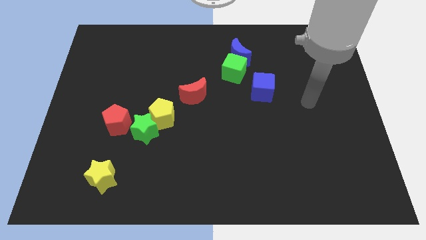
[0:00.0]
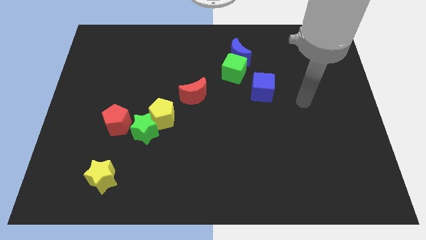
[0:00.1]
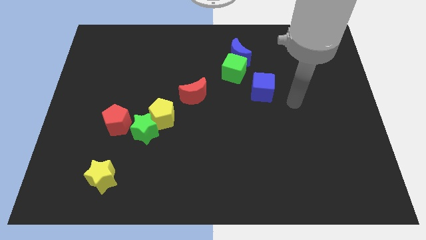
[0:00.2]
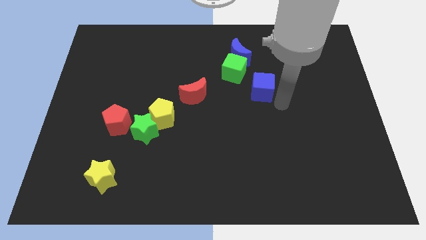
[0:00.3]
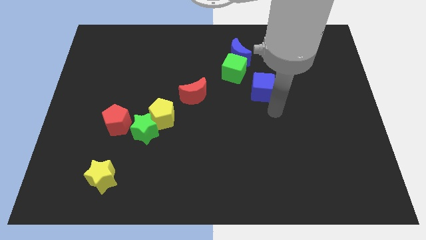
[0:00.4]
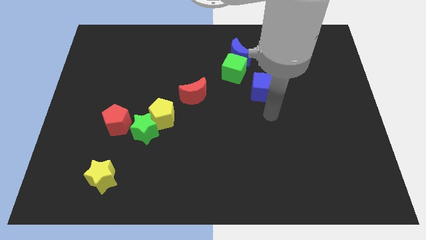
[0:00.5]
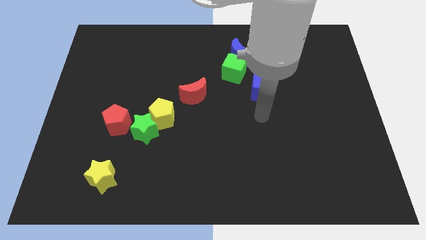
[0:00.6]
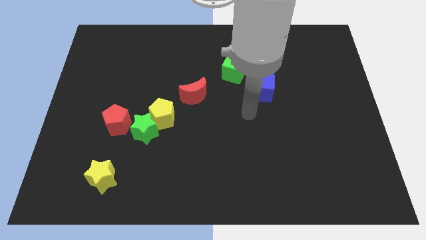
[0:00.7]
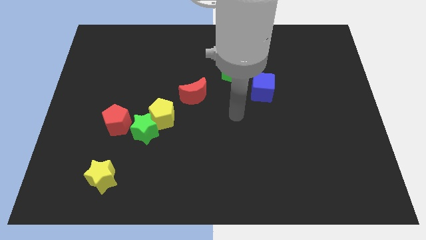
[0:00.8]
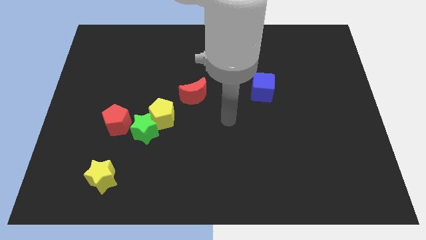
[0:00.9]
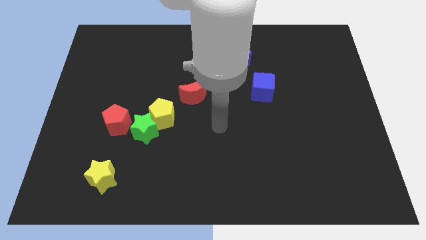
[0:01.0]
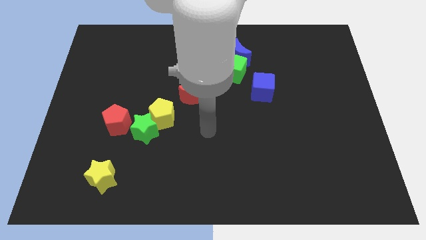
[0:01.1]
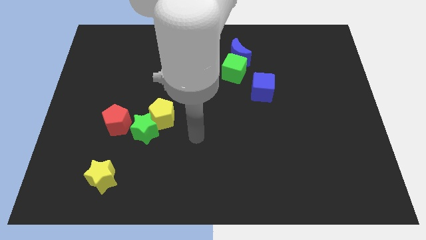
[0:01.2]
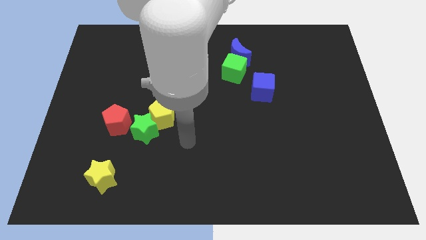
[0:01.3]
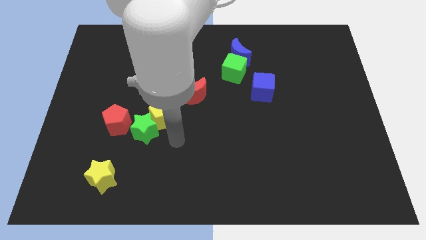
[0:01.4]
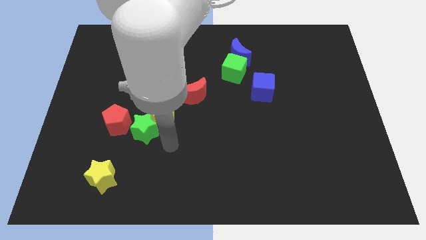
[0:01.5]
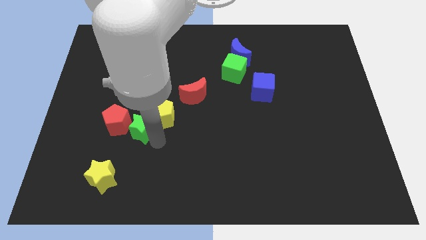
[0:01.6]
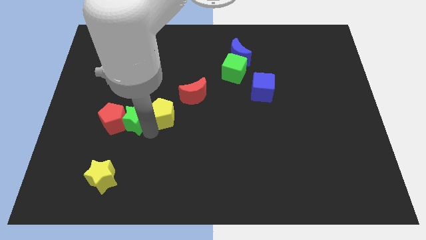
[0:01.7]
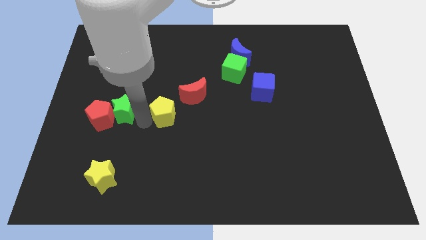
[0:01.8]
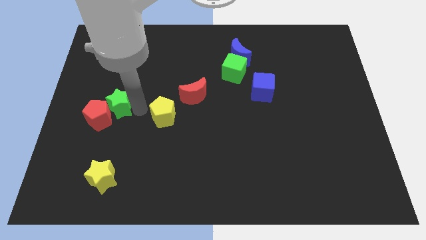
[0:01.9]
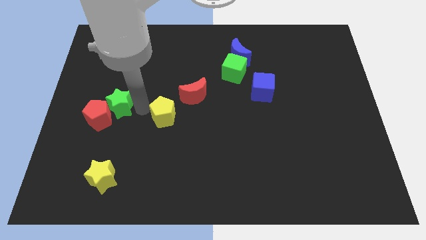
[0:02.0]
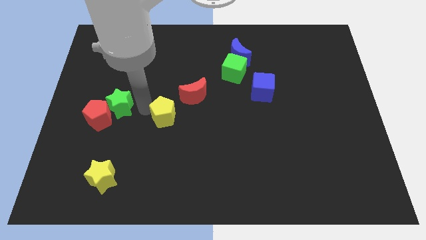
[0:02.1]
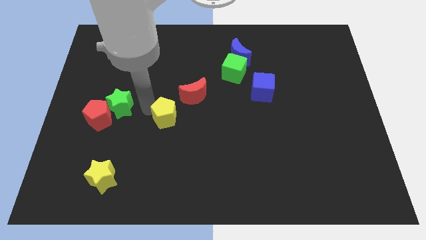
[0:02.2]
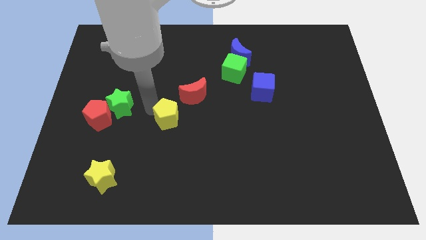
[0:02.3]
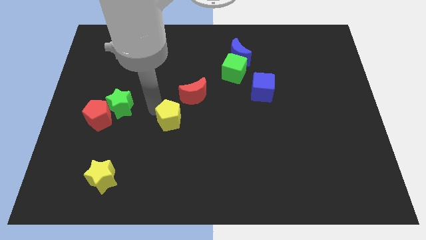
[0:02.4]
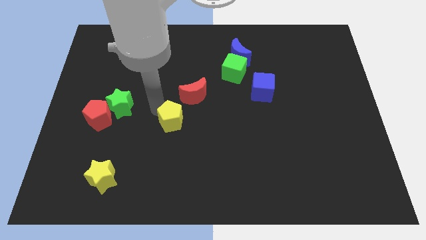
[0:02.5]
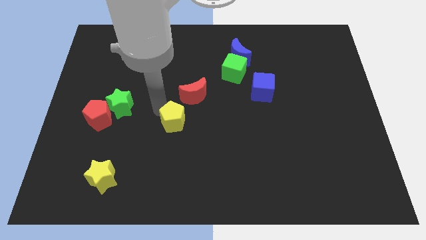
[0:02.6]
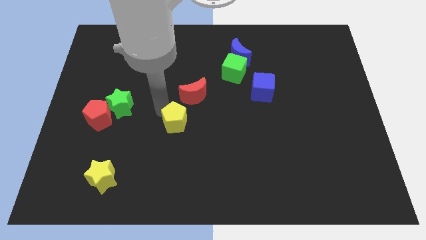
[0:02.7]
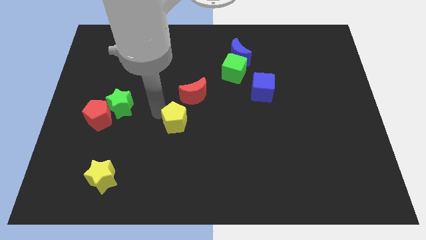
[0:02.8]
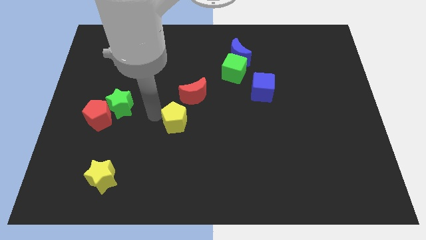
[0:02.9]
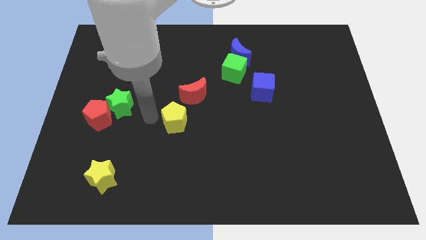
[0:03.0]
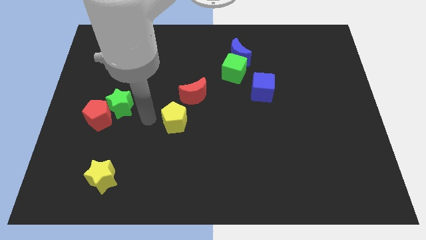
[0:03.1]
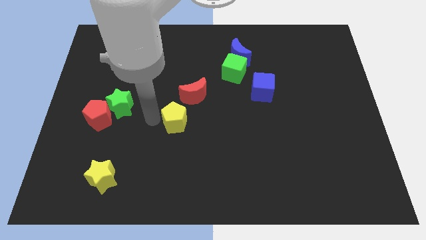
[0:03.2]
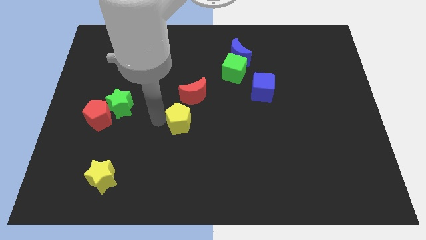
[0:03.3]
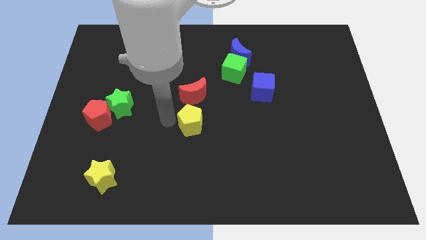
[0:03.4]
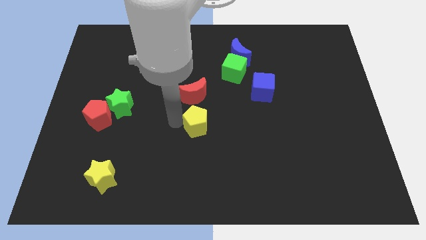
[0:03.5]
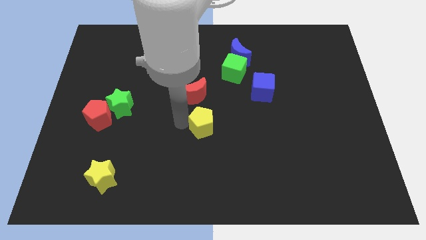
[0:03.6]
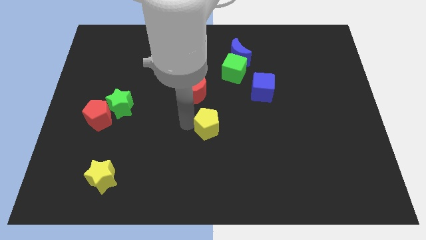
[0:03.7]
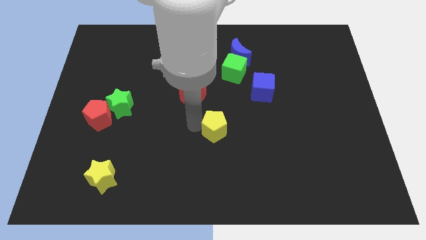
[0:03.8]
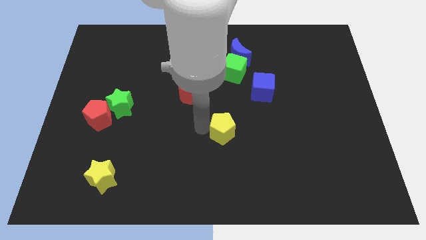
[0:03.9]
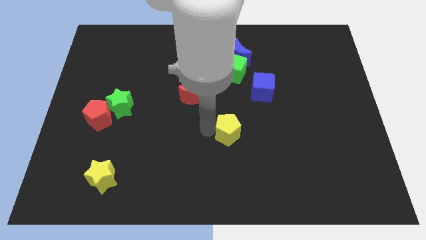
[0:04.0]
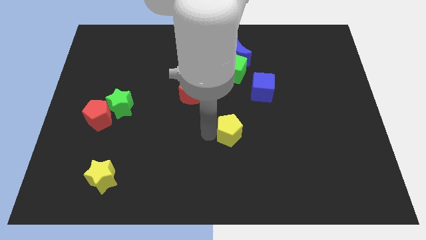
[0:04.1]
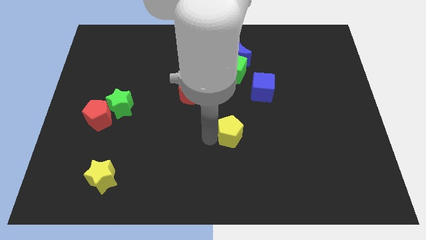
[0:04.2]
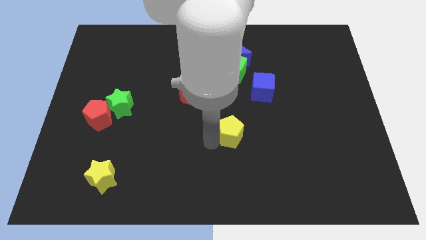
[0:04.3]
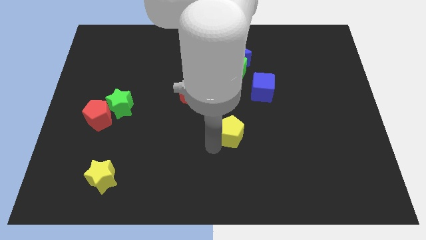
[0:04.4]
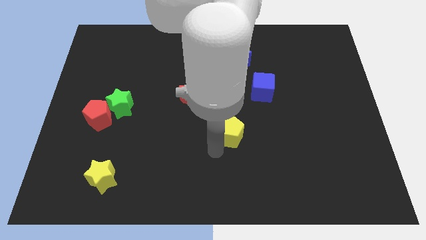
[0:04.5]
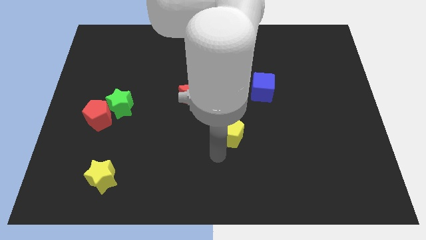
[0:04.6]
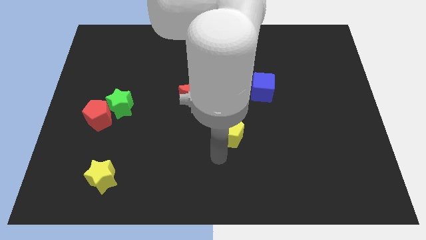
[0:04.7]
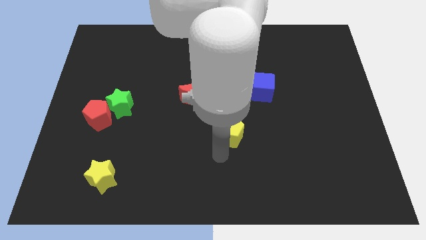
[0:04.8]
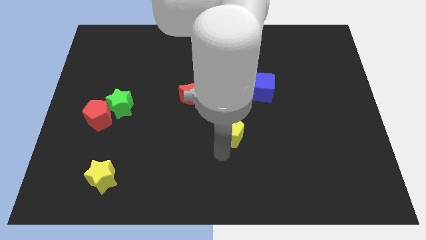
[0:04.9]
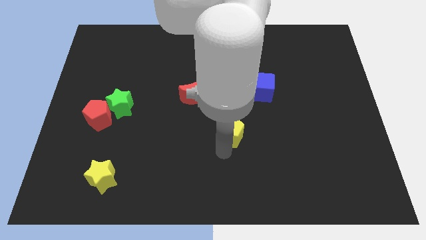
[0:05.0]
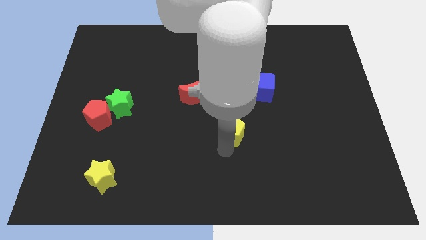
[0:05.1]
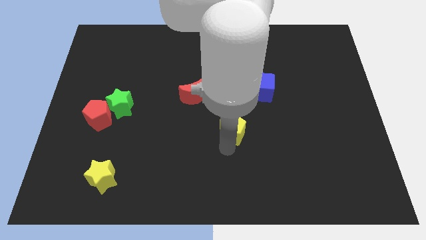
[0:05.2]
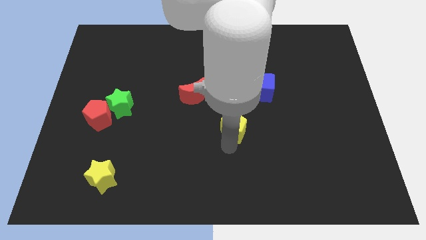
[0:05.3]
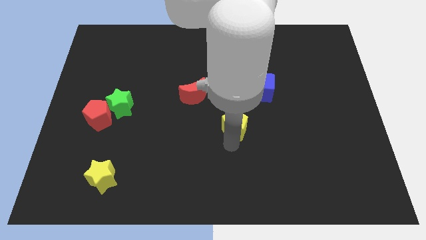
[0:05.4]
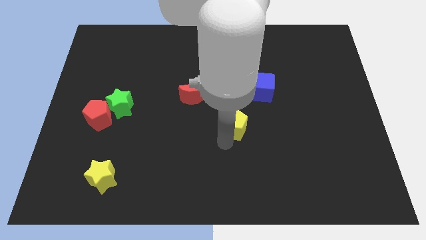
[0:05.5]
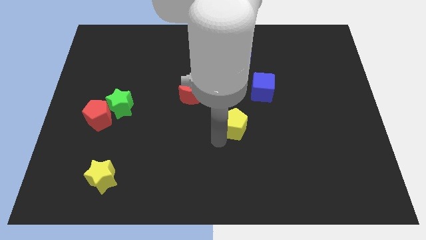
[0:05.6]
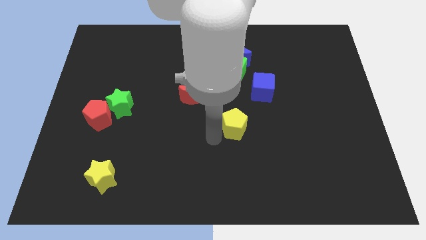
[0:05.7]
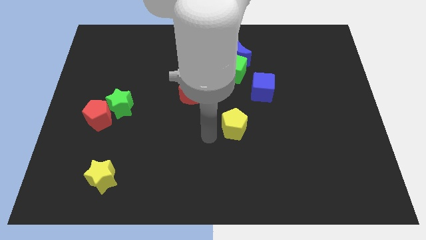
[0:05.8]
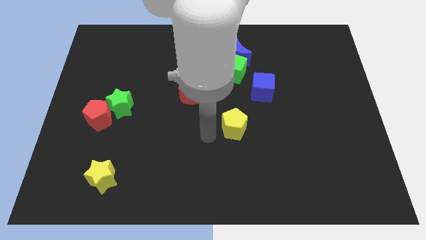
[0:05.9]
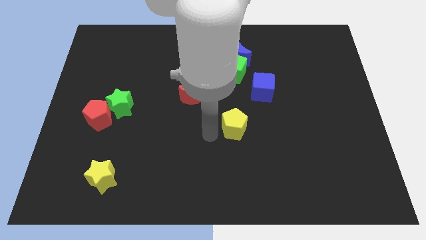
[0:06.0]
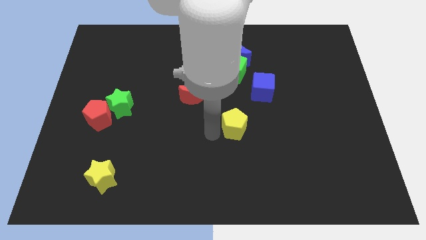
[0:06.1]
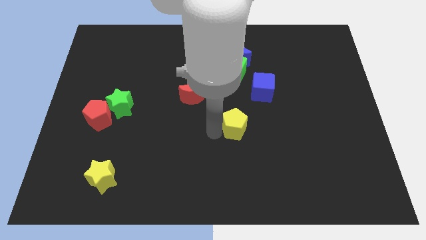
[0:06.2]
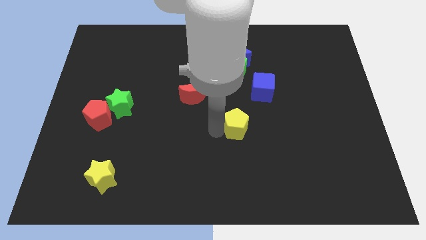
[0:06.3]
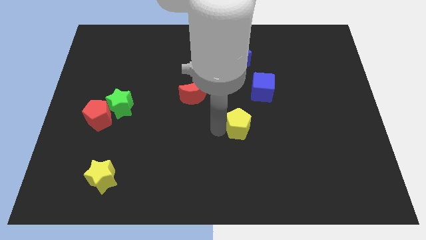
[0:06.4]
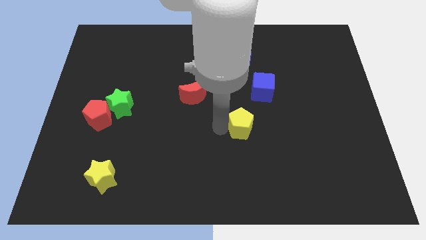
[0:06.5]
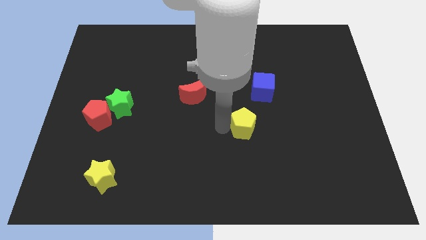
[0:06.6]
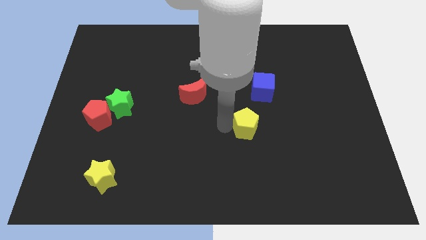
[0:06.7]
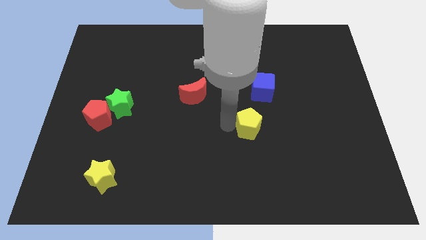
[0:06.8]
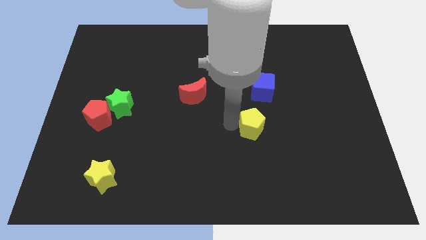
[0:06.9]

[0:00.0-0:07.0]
slide the yellow pentagon right

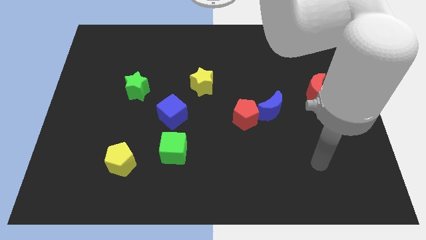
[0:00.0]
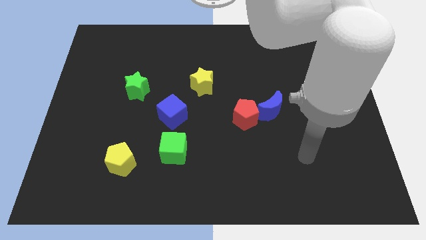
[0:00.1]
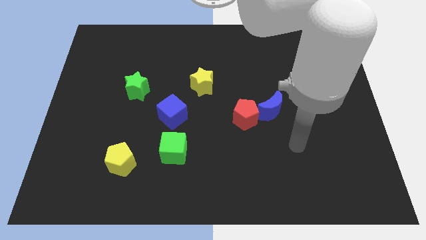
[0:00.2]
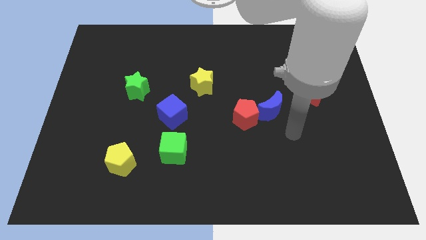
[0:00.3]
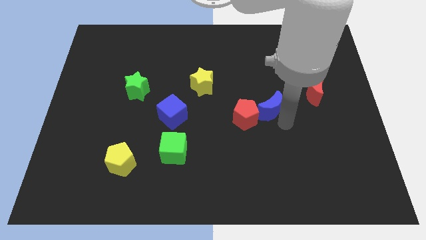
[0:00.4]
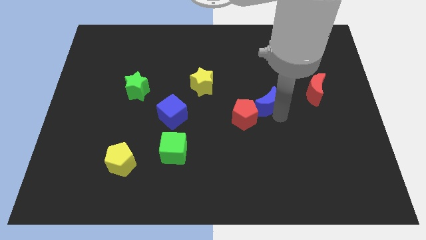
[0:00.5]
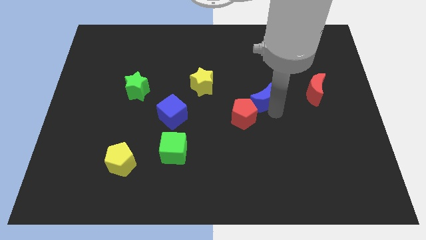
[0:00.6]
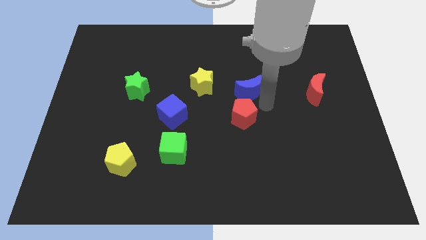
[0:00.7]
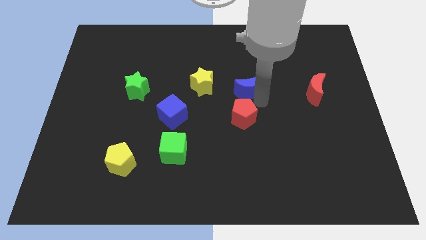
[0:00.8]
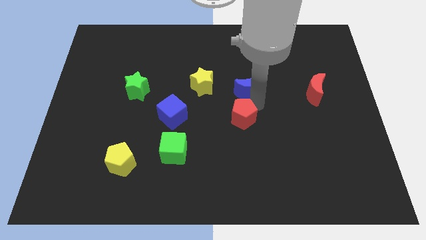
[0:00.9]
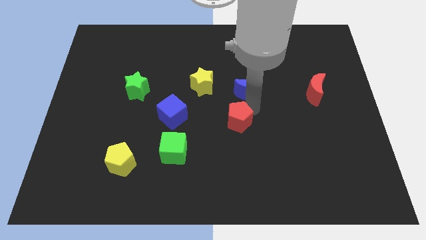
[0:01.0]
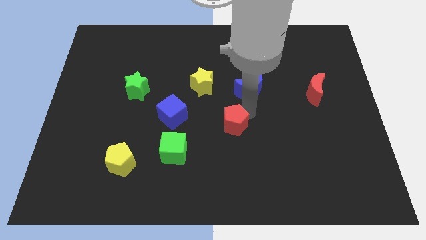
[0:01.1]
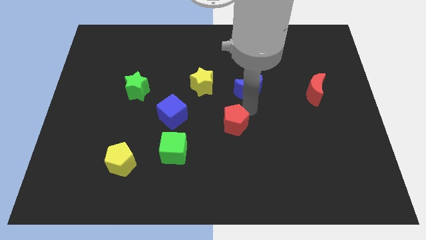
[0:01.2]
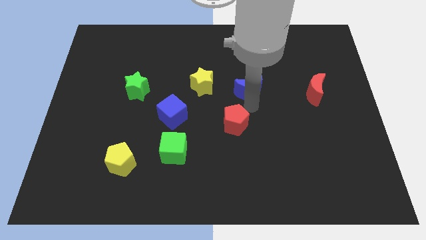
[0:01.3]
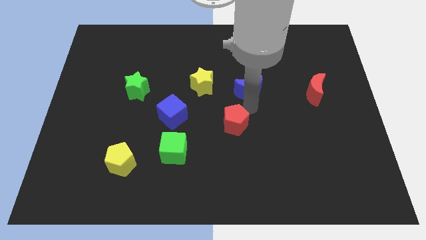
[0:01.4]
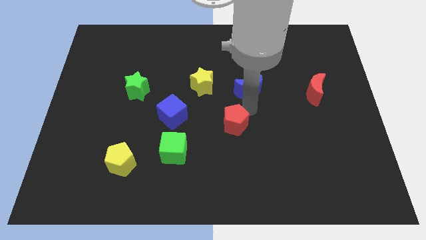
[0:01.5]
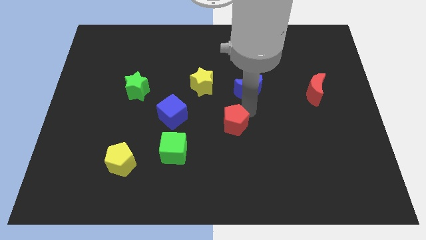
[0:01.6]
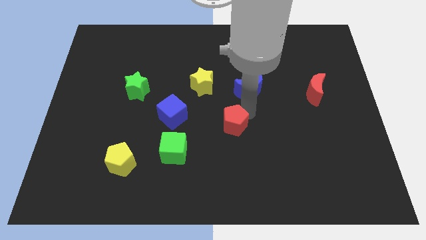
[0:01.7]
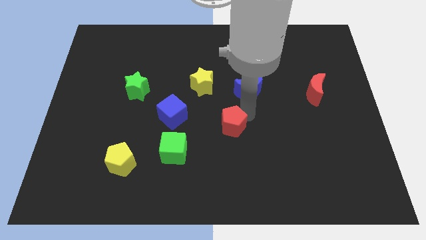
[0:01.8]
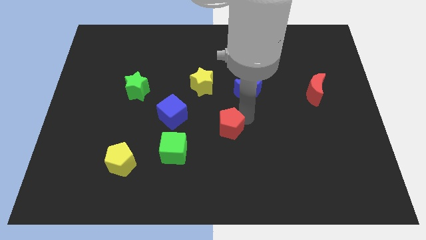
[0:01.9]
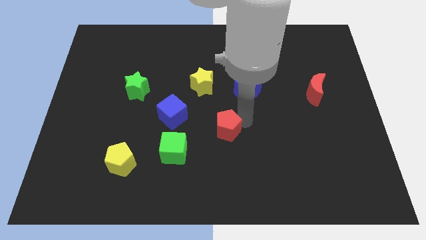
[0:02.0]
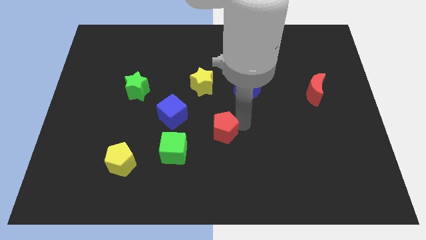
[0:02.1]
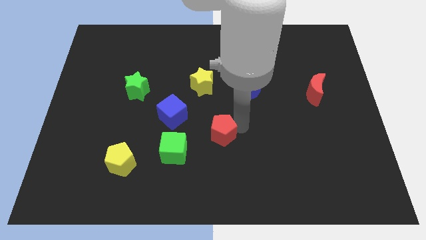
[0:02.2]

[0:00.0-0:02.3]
move the red pentagon a bit down and to the left
